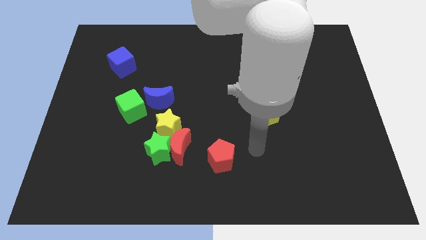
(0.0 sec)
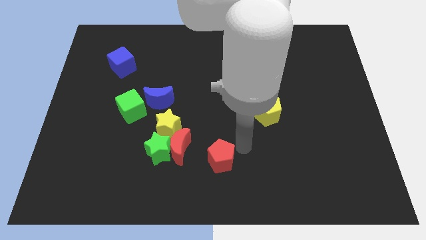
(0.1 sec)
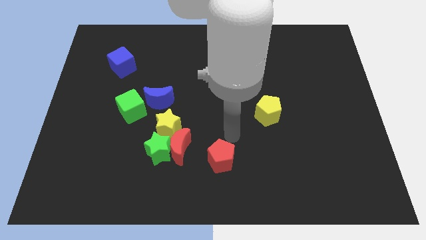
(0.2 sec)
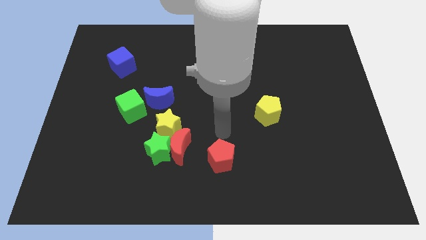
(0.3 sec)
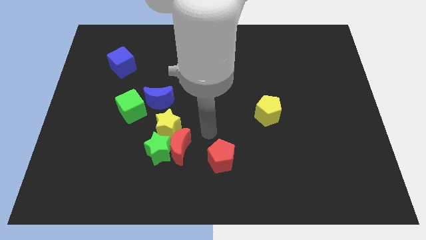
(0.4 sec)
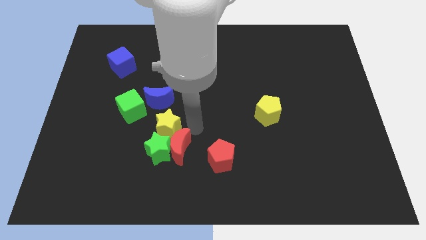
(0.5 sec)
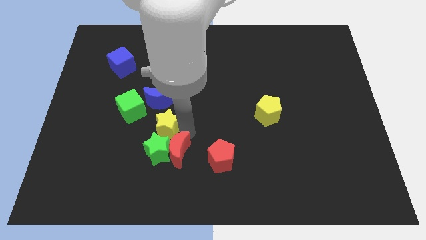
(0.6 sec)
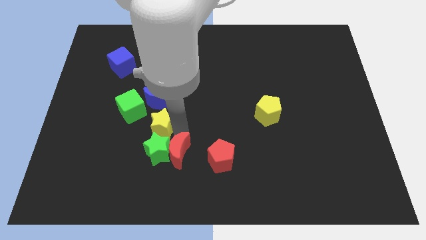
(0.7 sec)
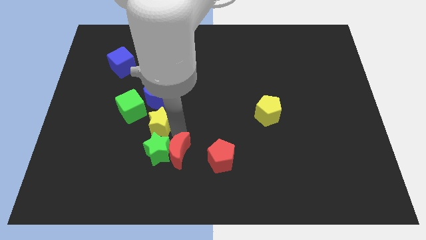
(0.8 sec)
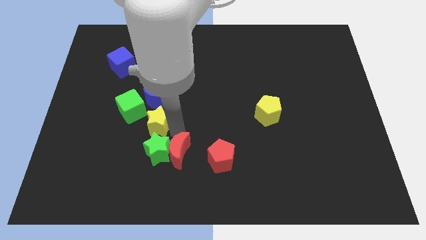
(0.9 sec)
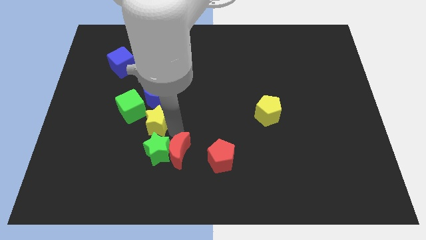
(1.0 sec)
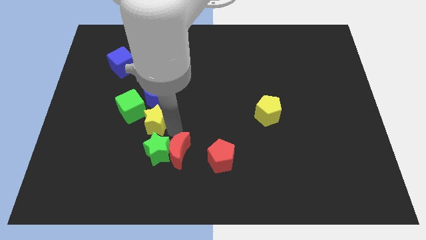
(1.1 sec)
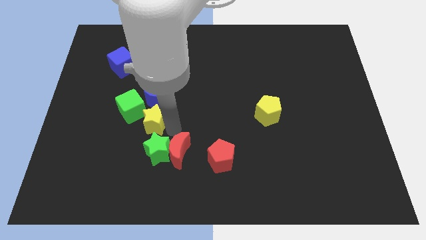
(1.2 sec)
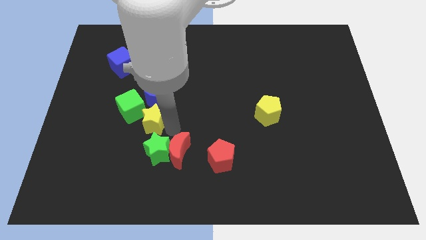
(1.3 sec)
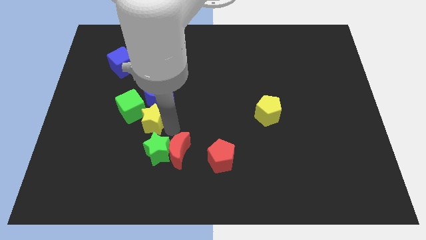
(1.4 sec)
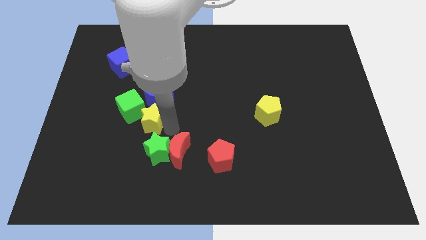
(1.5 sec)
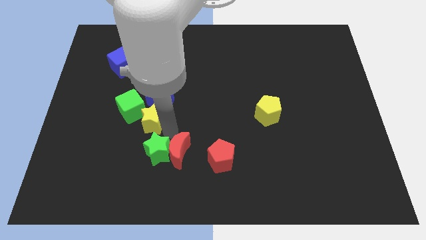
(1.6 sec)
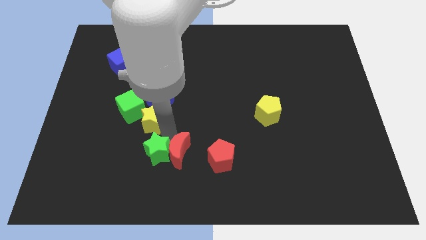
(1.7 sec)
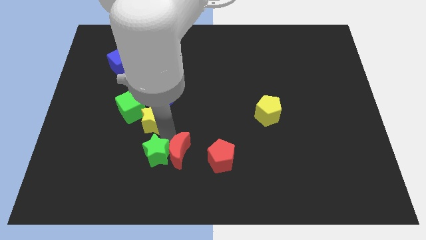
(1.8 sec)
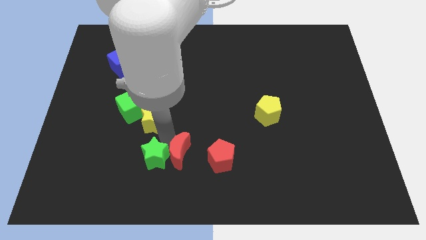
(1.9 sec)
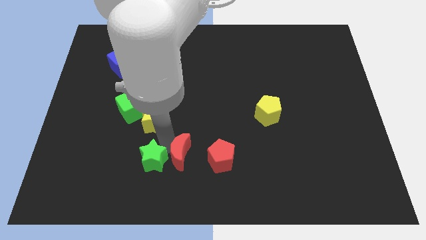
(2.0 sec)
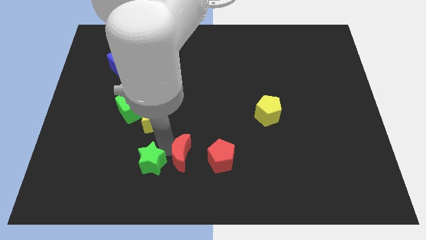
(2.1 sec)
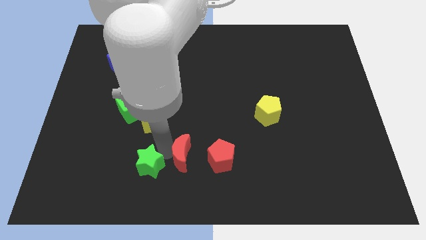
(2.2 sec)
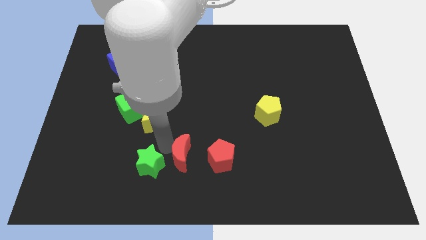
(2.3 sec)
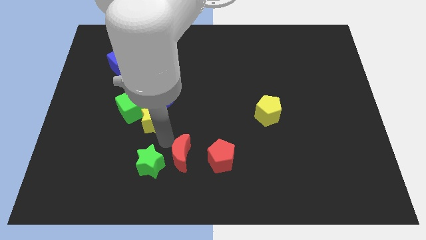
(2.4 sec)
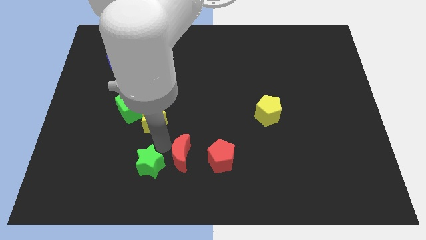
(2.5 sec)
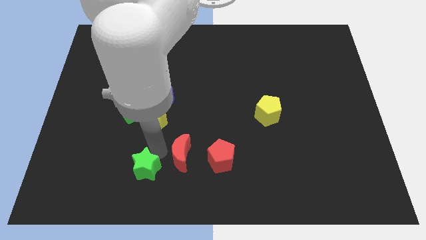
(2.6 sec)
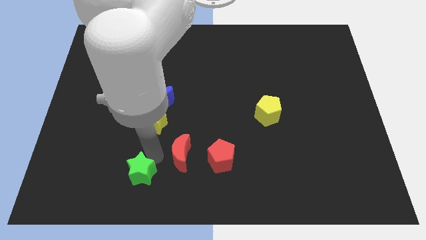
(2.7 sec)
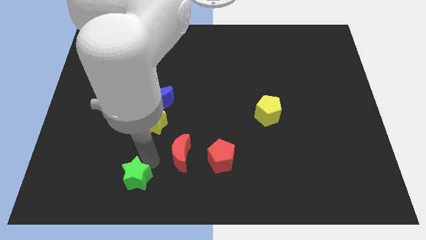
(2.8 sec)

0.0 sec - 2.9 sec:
move the green star away from the red moon and yellow star

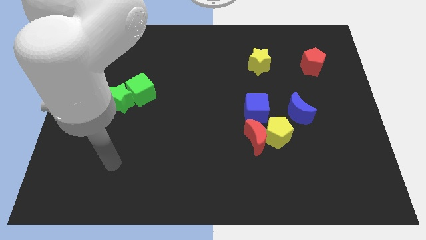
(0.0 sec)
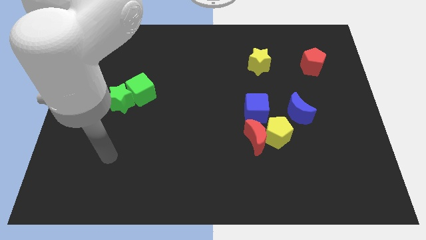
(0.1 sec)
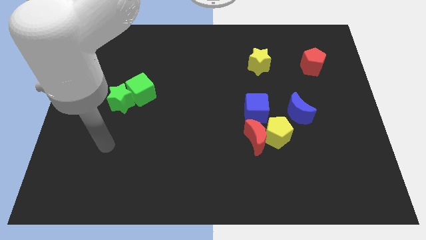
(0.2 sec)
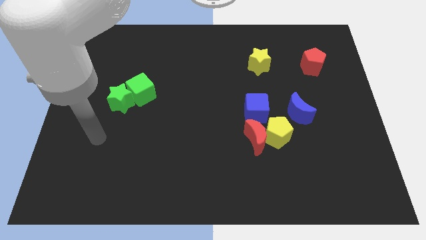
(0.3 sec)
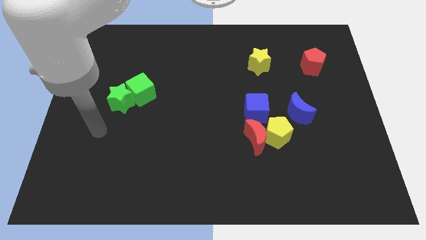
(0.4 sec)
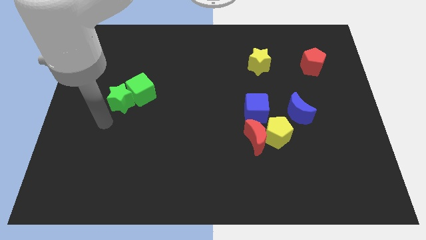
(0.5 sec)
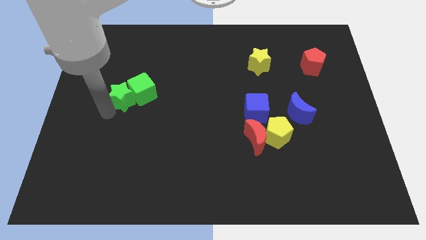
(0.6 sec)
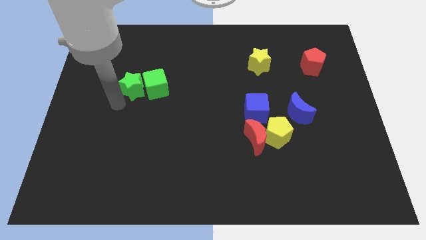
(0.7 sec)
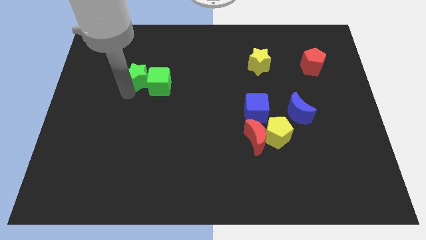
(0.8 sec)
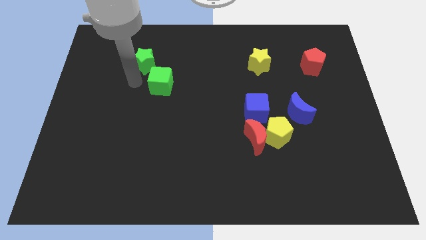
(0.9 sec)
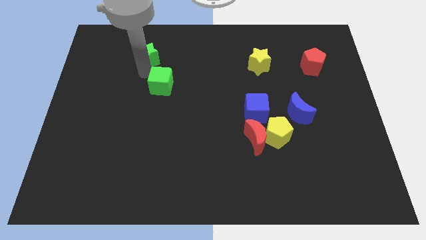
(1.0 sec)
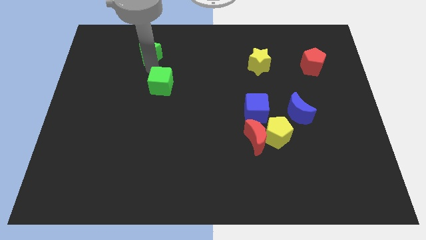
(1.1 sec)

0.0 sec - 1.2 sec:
pull the green cube apart from the green star

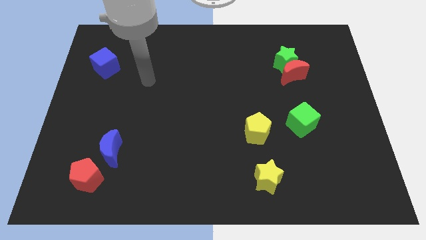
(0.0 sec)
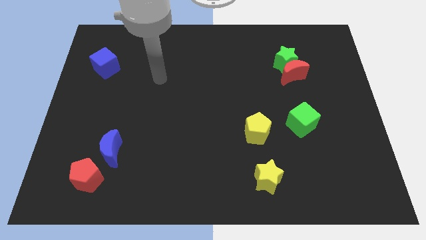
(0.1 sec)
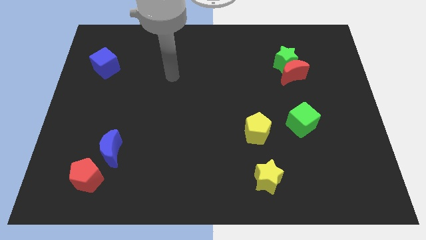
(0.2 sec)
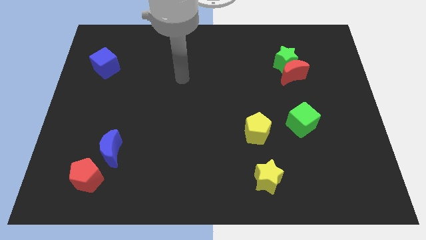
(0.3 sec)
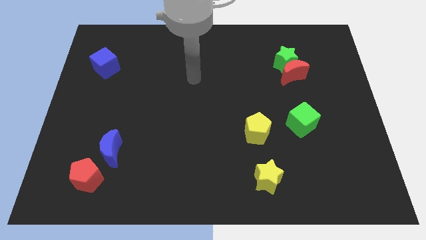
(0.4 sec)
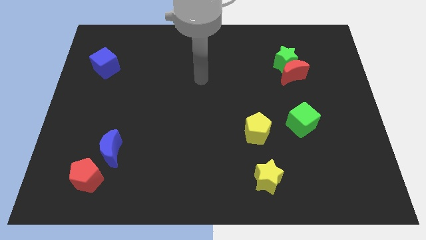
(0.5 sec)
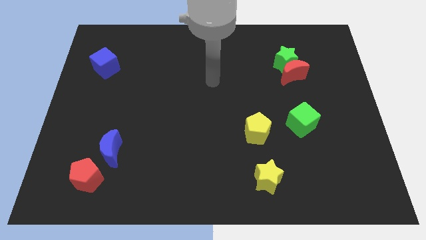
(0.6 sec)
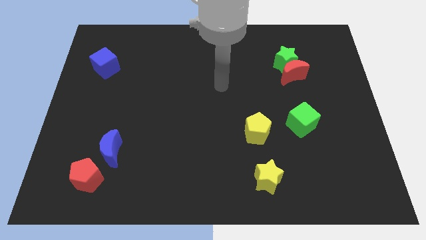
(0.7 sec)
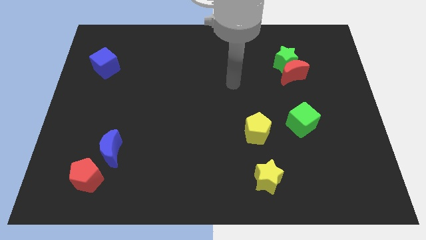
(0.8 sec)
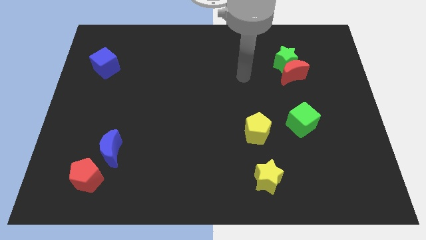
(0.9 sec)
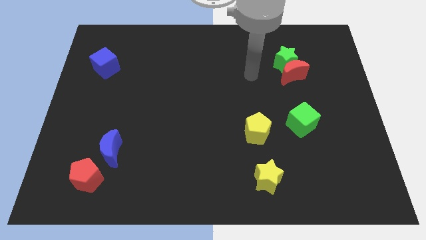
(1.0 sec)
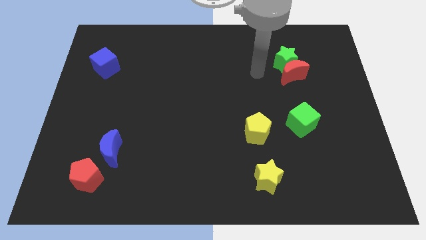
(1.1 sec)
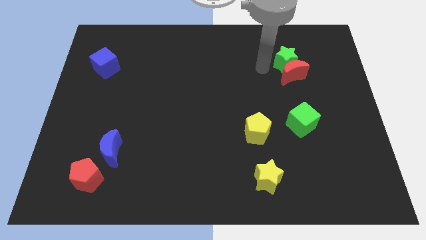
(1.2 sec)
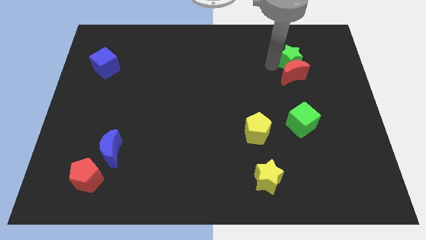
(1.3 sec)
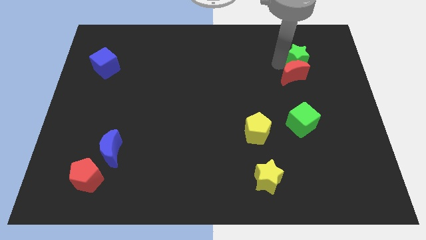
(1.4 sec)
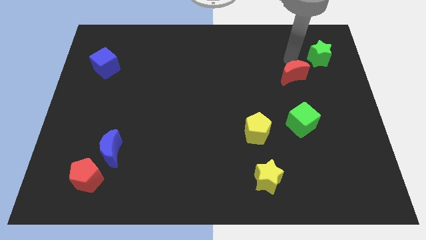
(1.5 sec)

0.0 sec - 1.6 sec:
move the red moon away from the green star

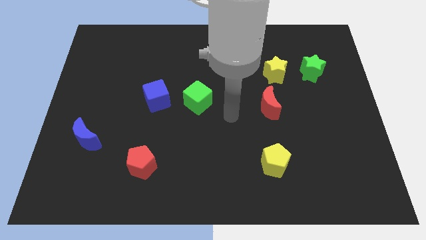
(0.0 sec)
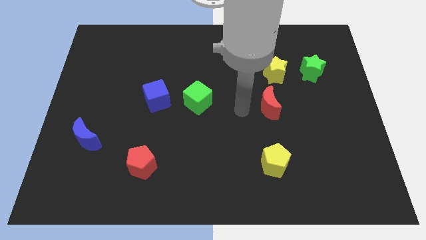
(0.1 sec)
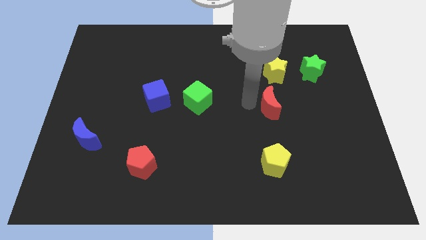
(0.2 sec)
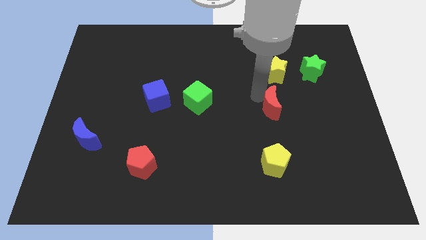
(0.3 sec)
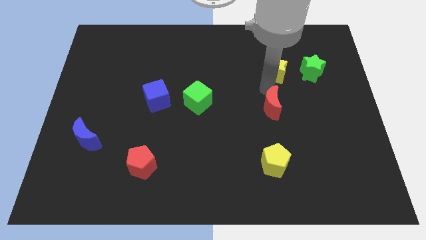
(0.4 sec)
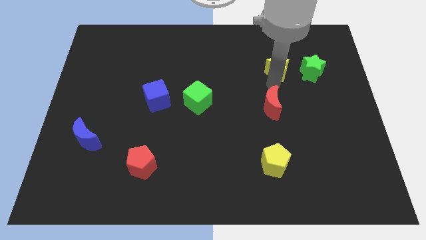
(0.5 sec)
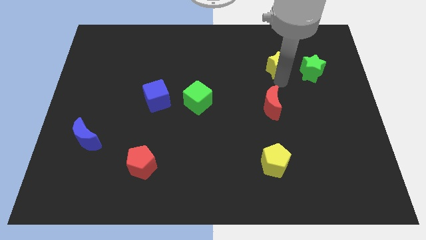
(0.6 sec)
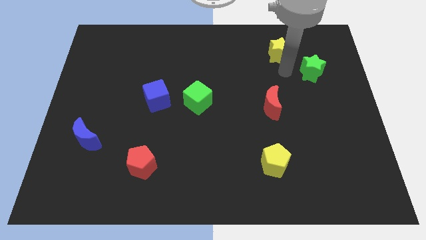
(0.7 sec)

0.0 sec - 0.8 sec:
move the green star away from the yellow star

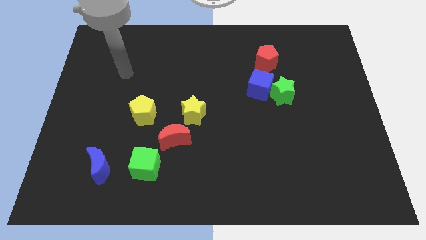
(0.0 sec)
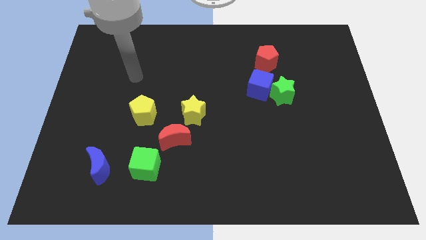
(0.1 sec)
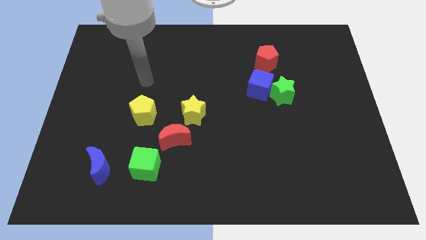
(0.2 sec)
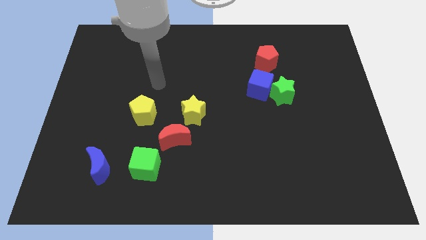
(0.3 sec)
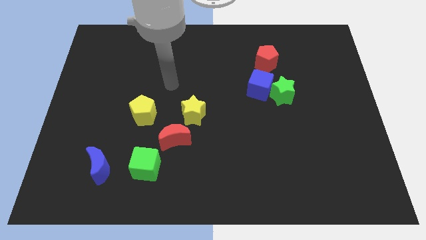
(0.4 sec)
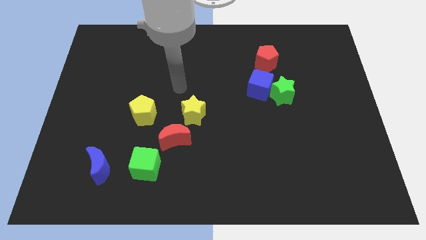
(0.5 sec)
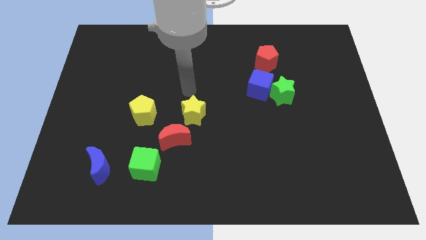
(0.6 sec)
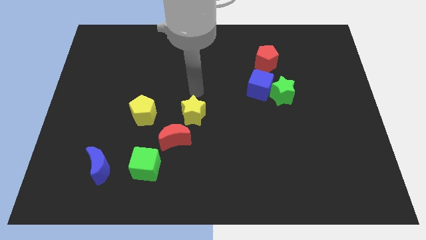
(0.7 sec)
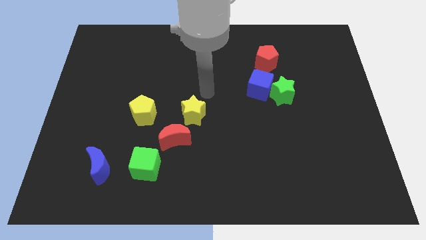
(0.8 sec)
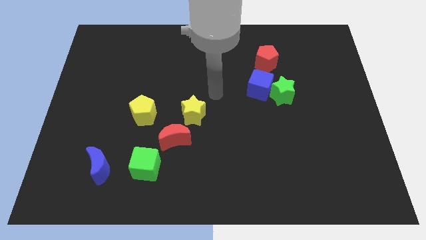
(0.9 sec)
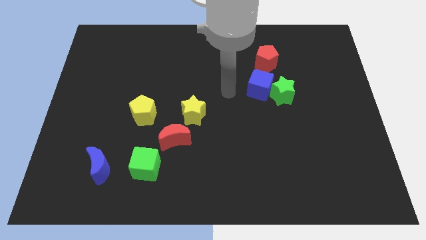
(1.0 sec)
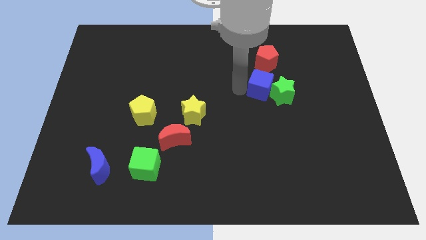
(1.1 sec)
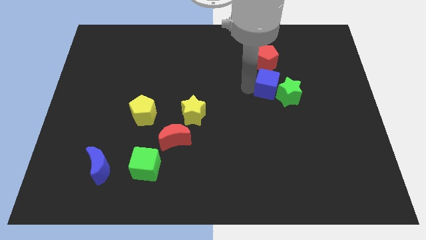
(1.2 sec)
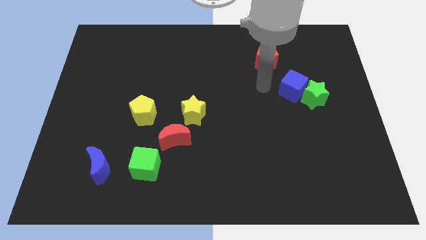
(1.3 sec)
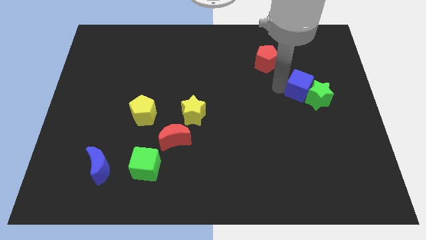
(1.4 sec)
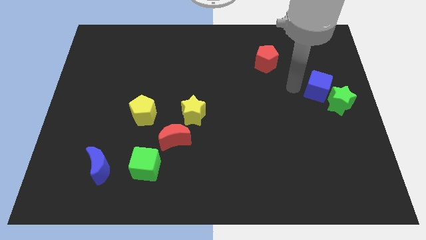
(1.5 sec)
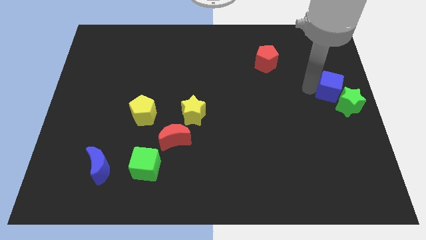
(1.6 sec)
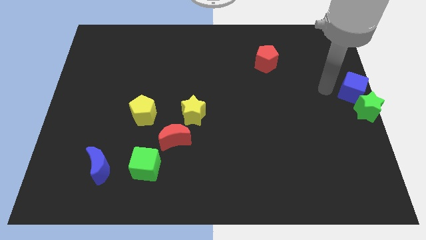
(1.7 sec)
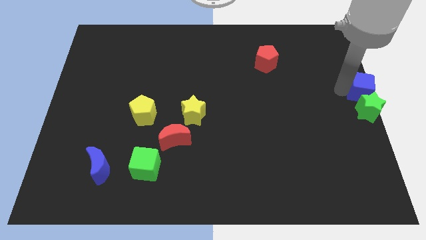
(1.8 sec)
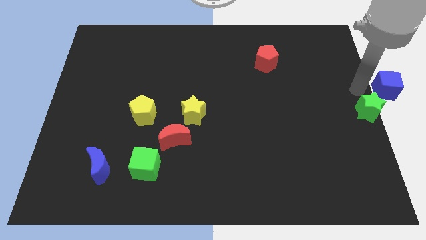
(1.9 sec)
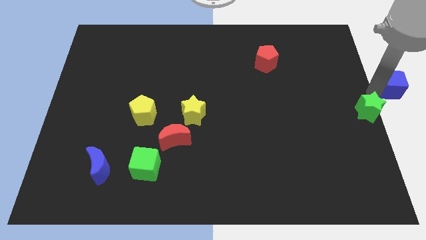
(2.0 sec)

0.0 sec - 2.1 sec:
pull the green star apart from the blue cube

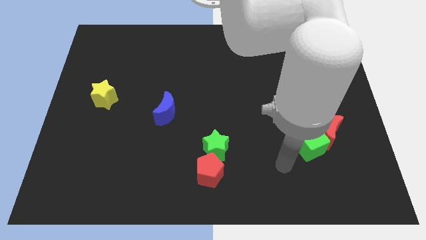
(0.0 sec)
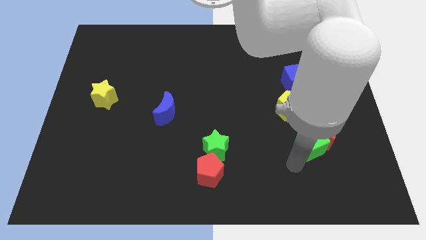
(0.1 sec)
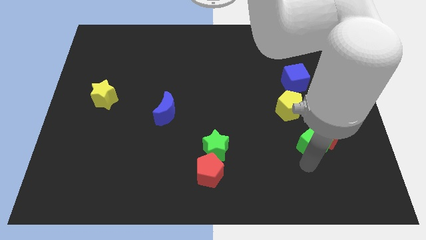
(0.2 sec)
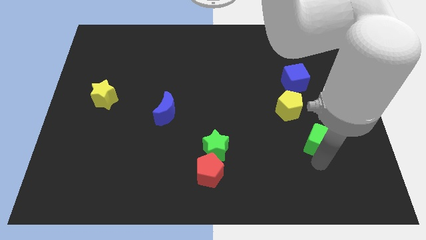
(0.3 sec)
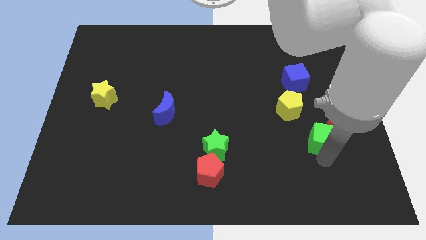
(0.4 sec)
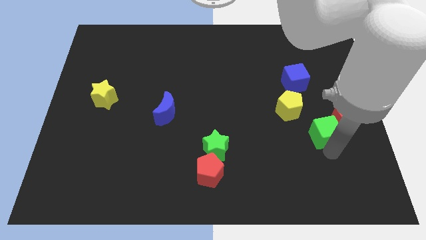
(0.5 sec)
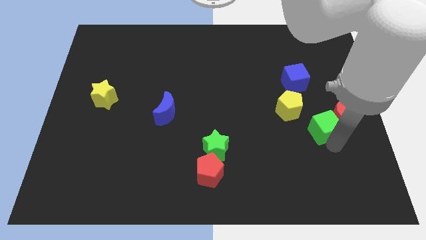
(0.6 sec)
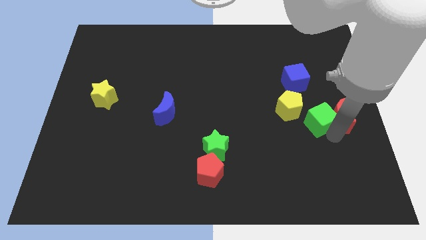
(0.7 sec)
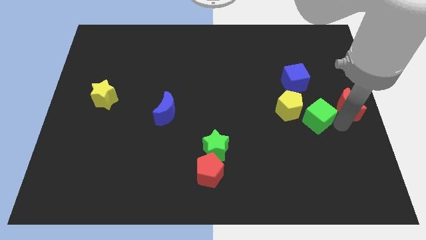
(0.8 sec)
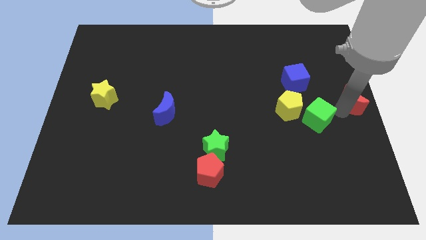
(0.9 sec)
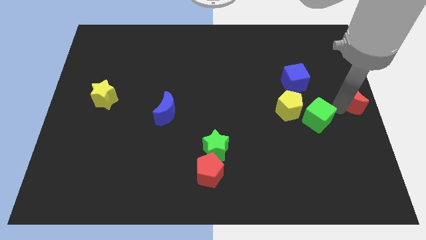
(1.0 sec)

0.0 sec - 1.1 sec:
separate the green cube from the red moon
